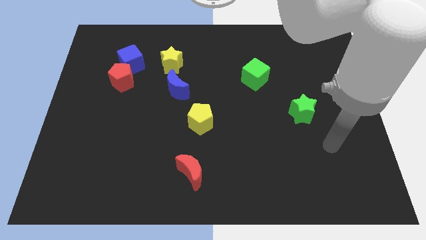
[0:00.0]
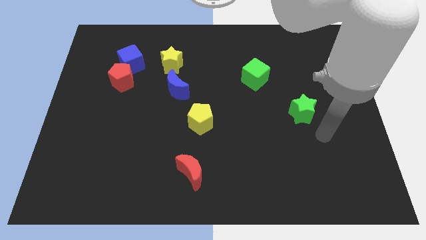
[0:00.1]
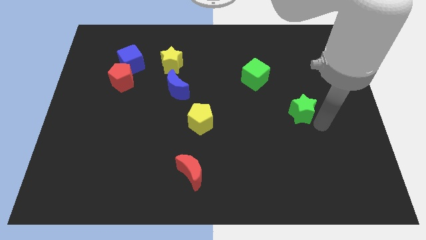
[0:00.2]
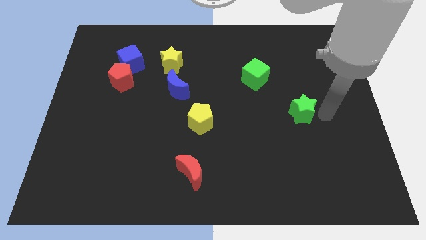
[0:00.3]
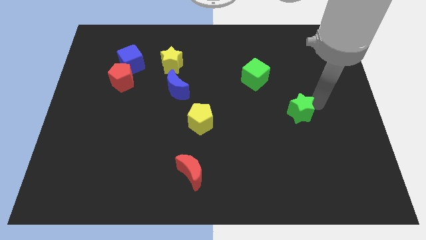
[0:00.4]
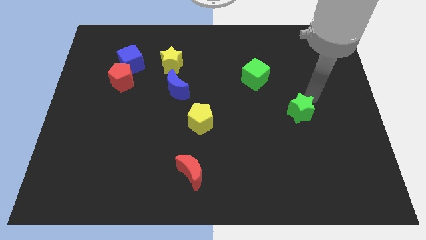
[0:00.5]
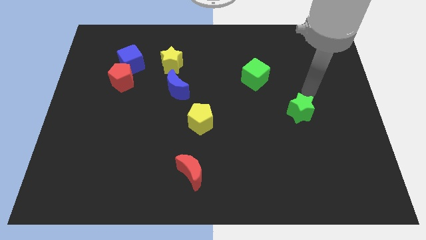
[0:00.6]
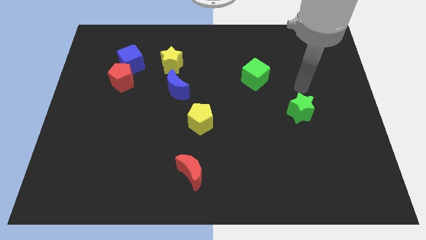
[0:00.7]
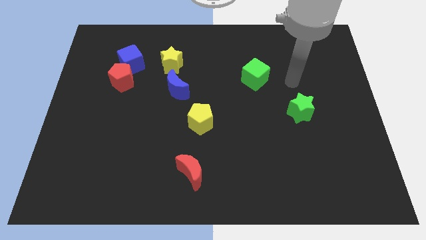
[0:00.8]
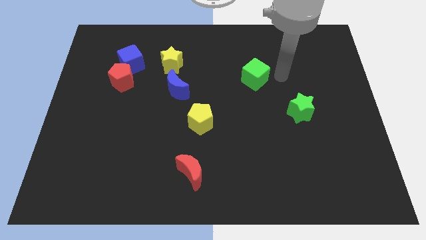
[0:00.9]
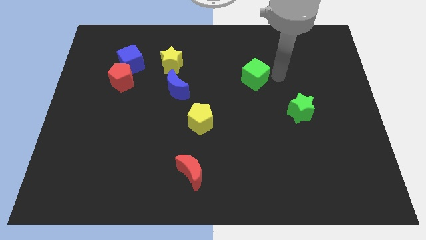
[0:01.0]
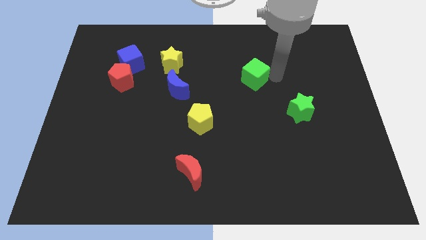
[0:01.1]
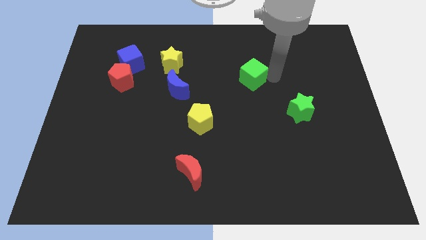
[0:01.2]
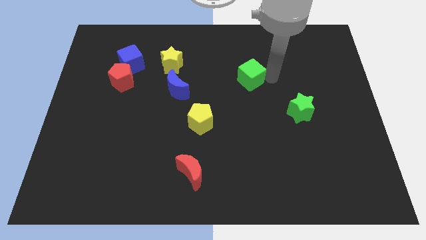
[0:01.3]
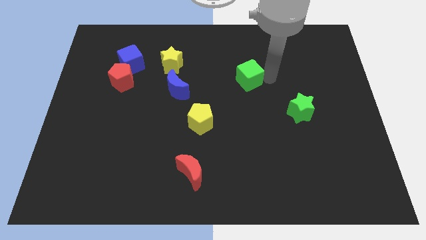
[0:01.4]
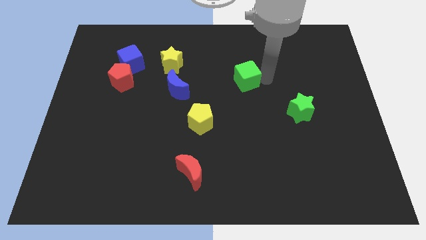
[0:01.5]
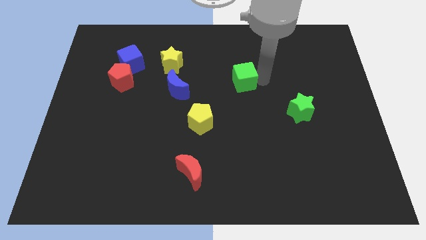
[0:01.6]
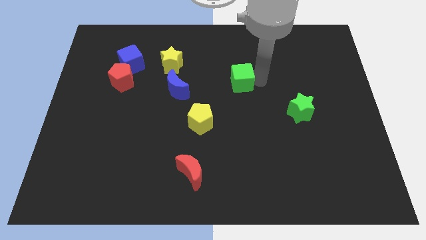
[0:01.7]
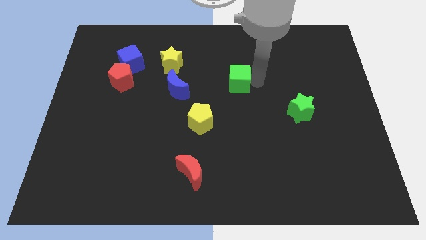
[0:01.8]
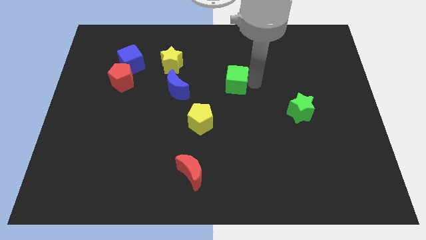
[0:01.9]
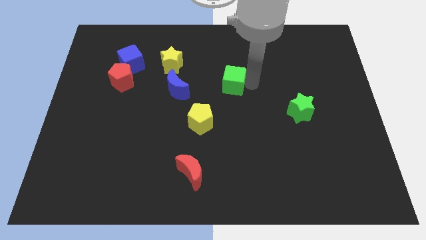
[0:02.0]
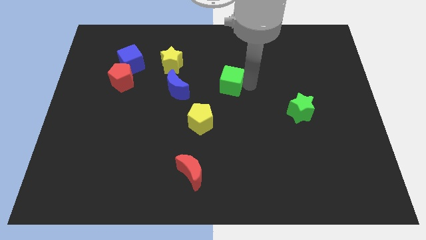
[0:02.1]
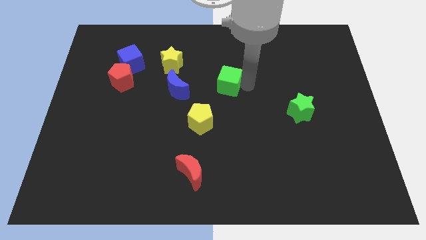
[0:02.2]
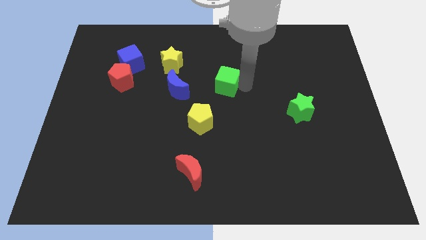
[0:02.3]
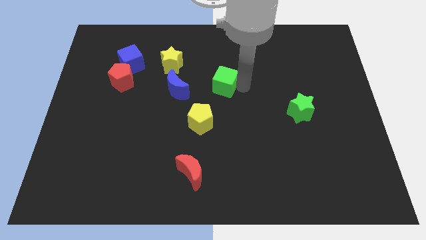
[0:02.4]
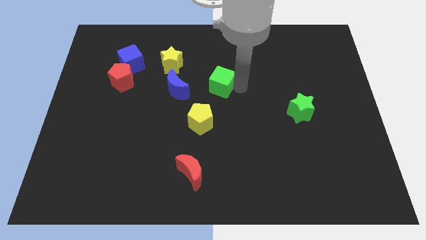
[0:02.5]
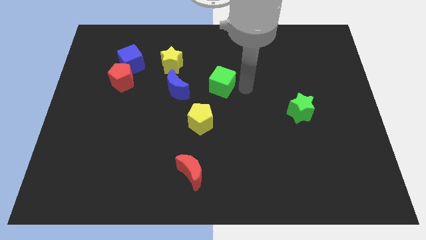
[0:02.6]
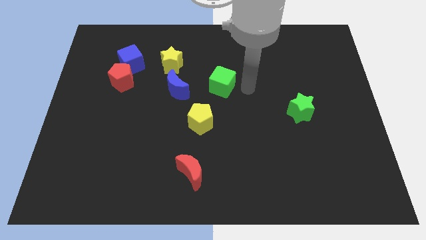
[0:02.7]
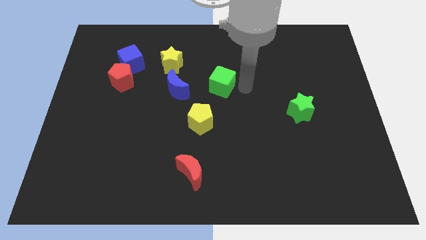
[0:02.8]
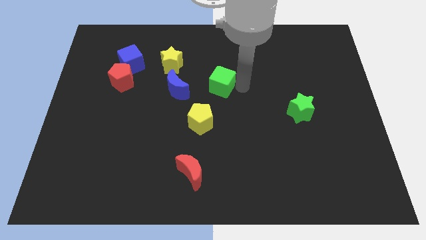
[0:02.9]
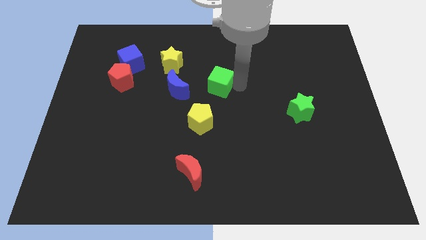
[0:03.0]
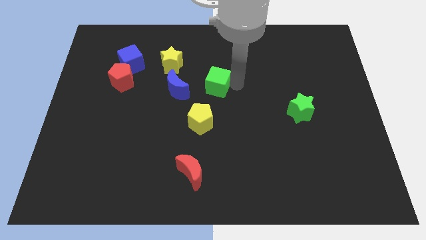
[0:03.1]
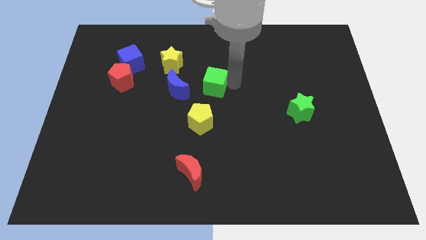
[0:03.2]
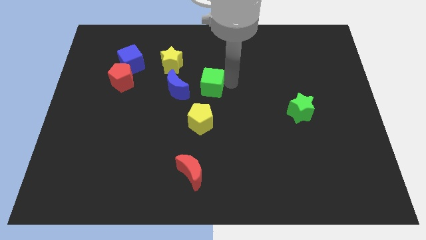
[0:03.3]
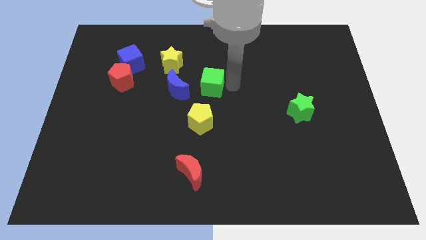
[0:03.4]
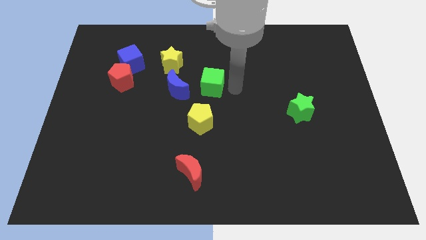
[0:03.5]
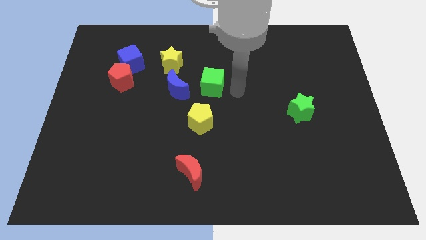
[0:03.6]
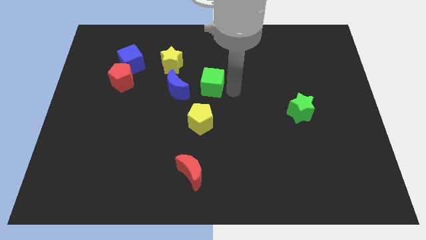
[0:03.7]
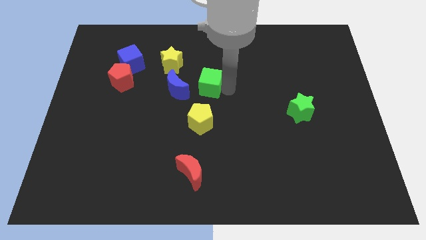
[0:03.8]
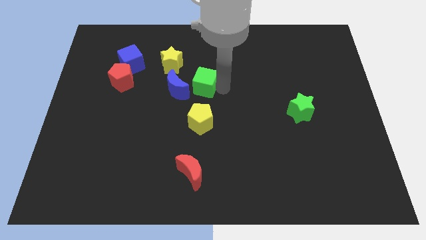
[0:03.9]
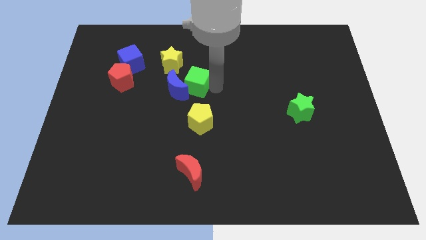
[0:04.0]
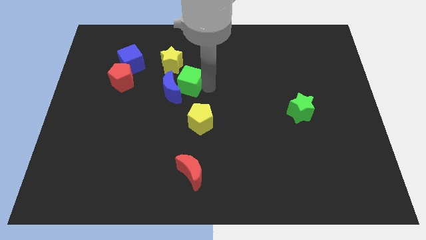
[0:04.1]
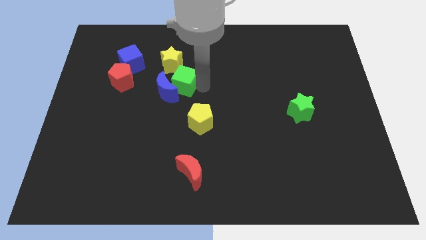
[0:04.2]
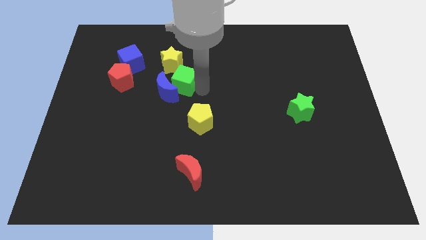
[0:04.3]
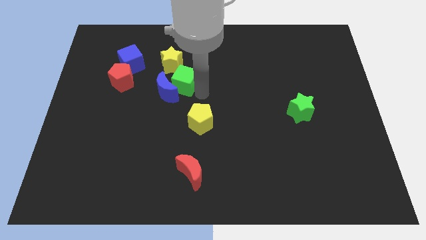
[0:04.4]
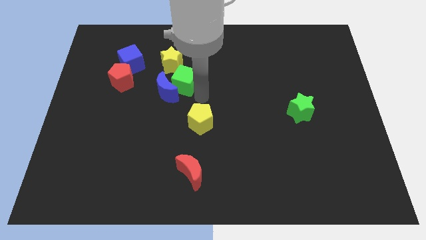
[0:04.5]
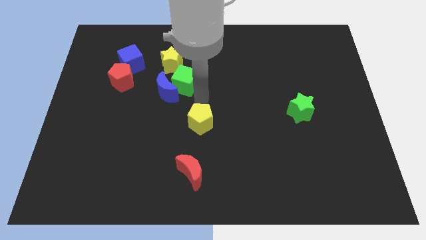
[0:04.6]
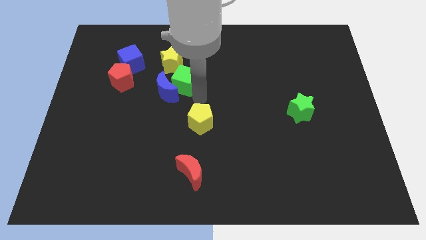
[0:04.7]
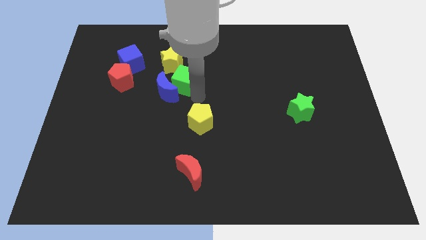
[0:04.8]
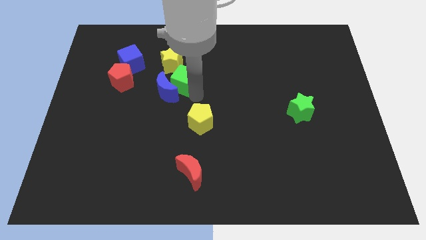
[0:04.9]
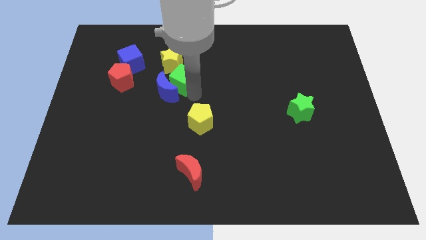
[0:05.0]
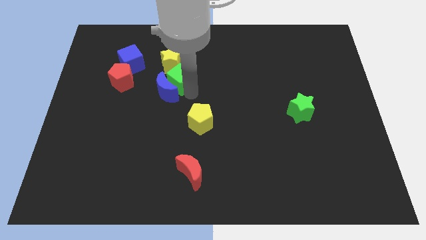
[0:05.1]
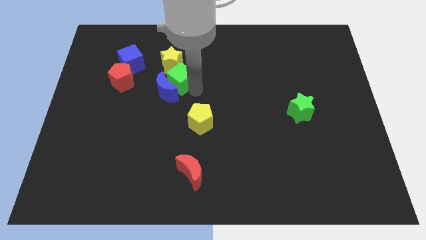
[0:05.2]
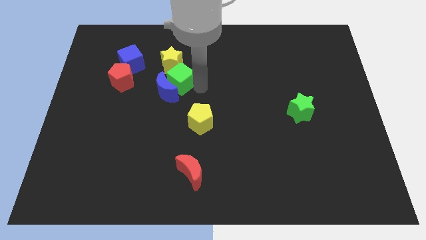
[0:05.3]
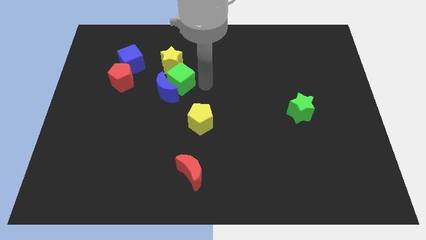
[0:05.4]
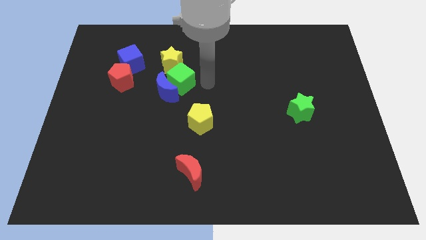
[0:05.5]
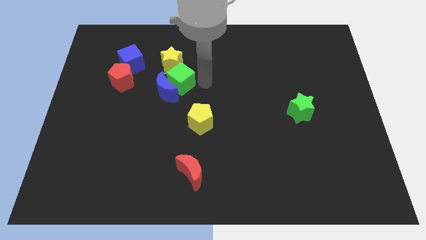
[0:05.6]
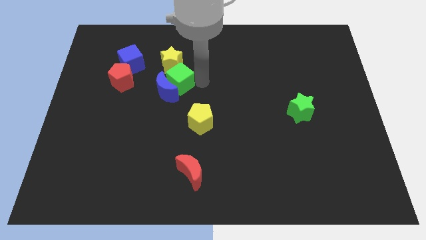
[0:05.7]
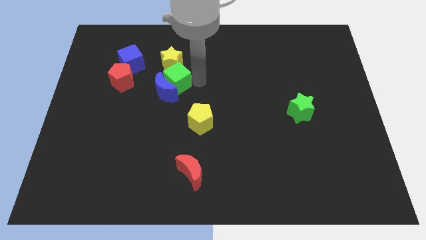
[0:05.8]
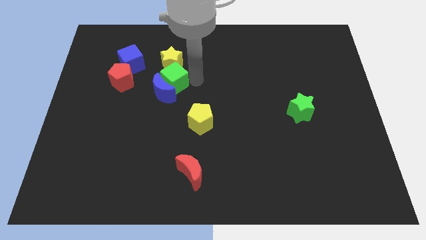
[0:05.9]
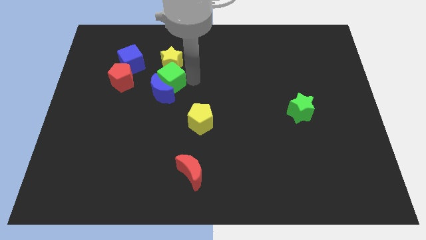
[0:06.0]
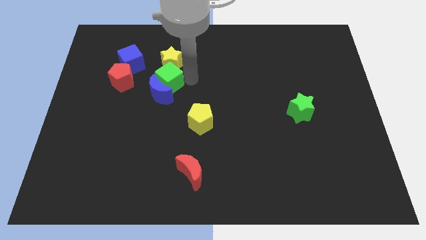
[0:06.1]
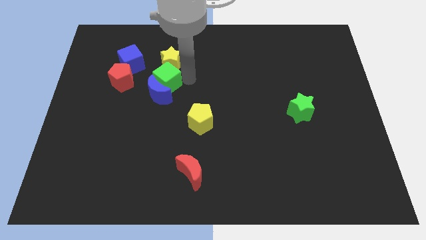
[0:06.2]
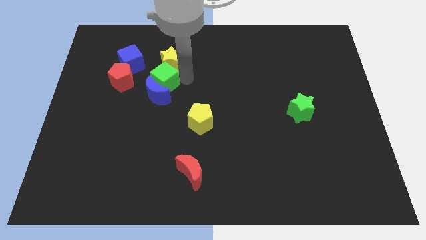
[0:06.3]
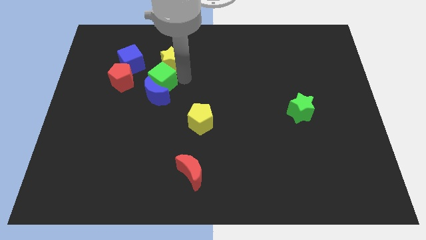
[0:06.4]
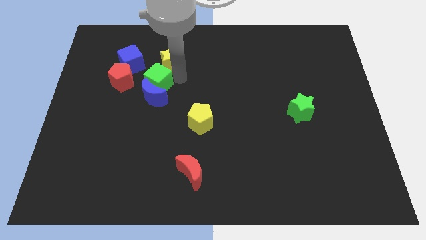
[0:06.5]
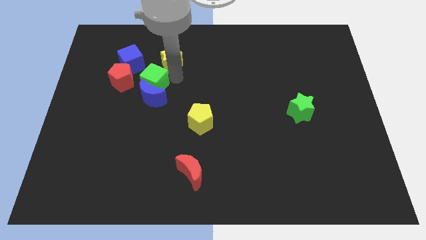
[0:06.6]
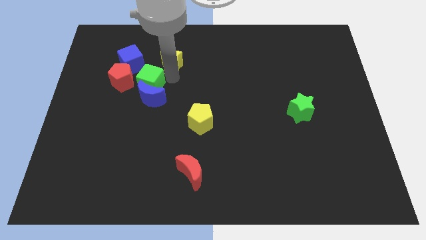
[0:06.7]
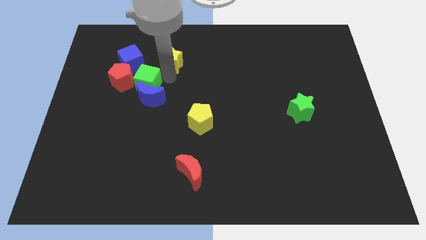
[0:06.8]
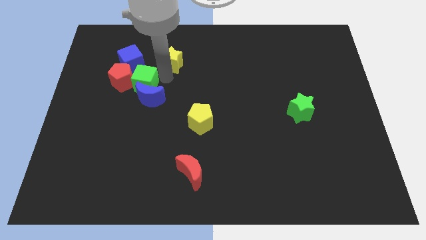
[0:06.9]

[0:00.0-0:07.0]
move the green cube to the red pentagon

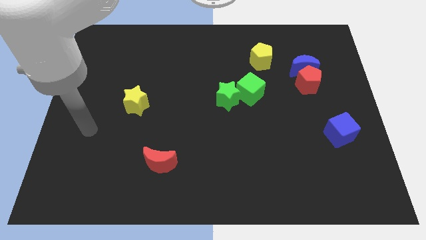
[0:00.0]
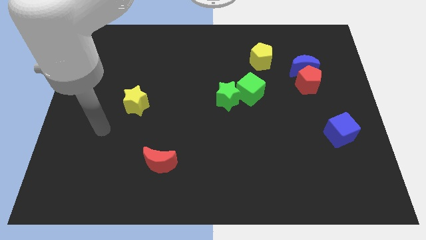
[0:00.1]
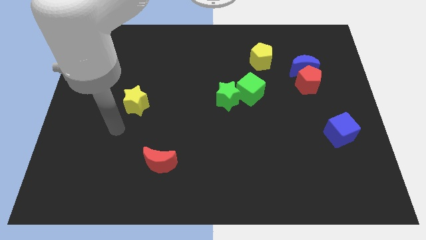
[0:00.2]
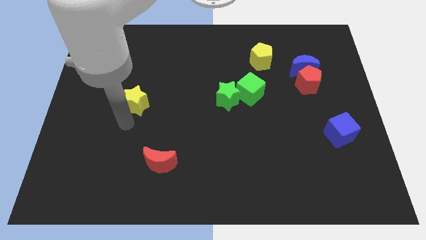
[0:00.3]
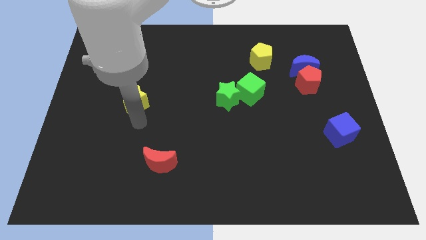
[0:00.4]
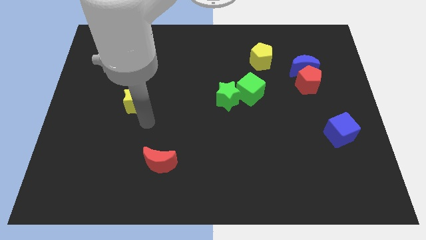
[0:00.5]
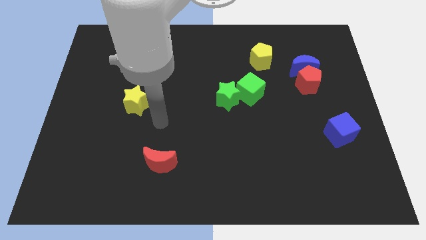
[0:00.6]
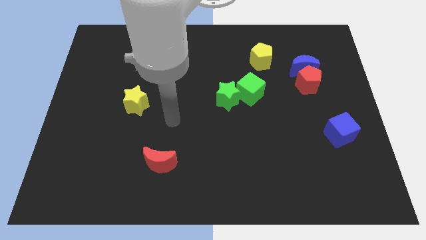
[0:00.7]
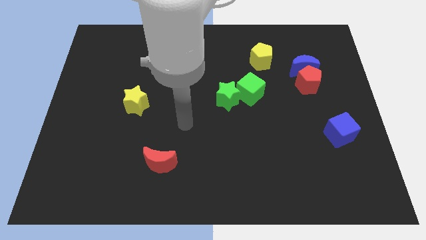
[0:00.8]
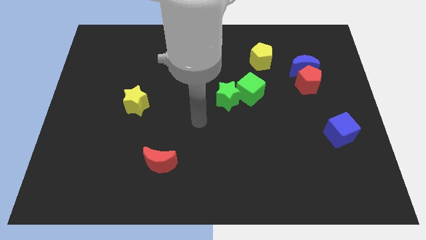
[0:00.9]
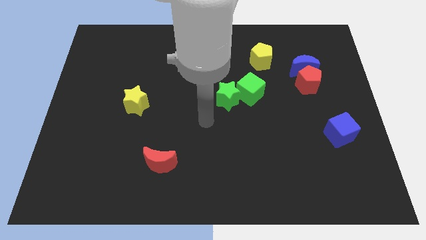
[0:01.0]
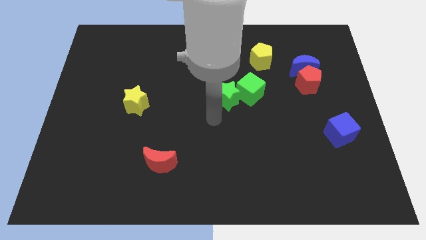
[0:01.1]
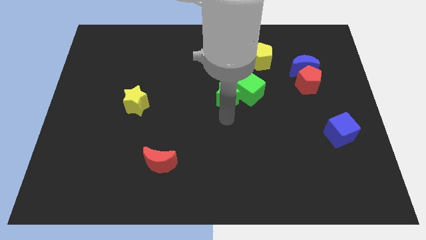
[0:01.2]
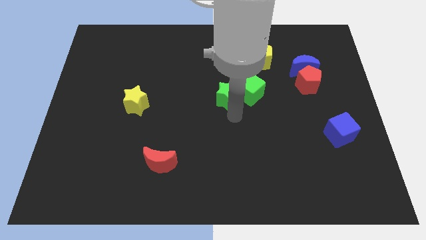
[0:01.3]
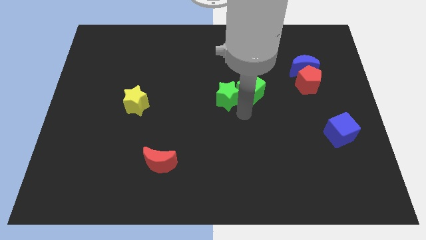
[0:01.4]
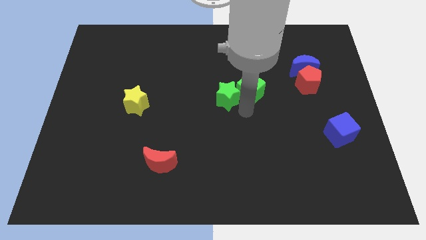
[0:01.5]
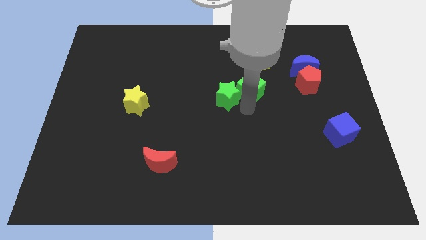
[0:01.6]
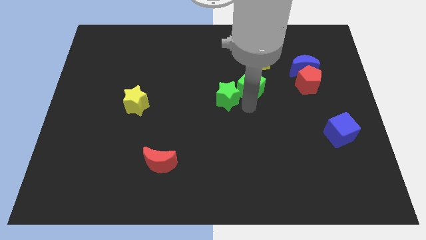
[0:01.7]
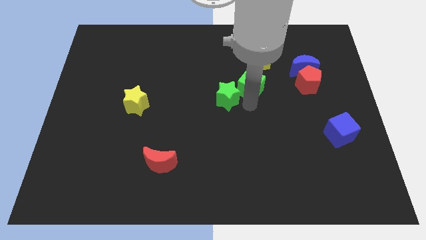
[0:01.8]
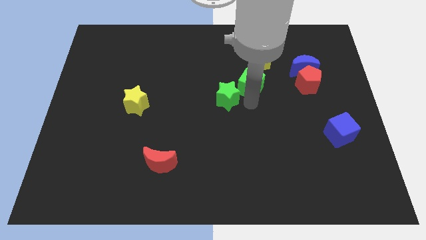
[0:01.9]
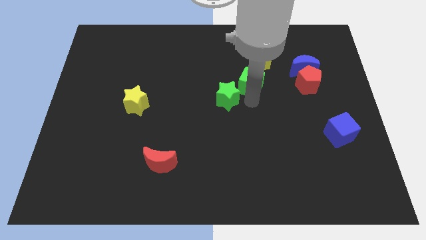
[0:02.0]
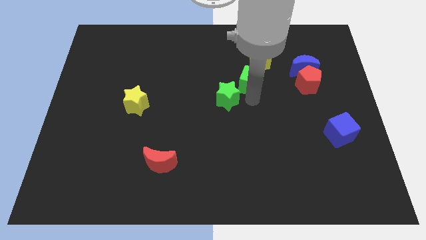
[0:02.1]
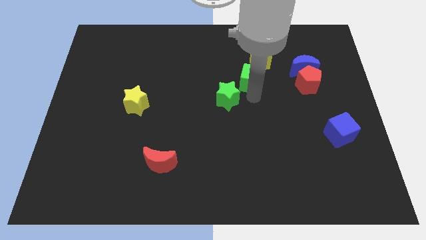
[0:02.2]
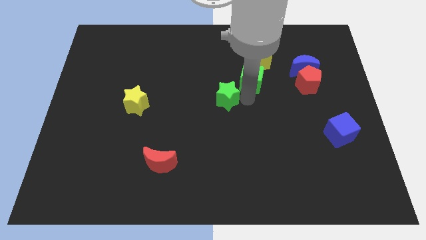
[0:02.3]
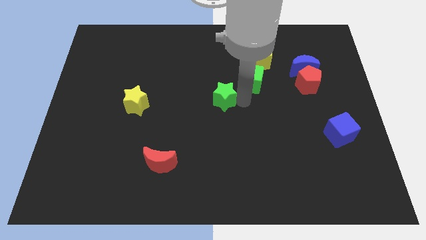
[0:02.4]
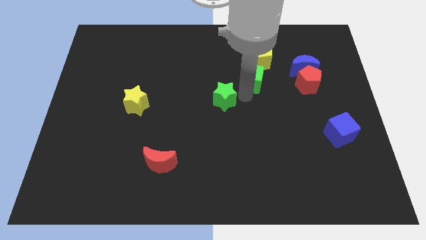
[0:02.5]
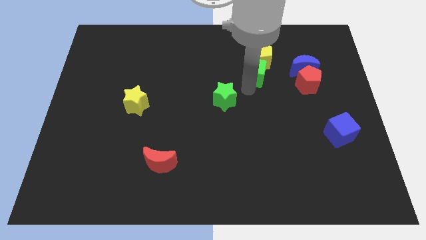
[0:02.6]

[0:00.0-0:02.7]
slide the green cube next to the yellow pentagon
